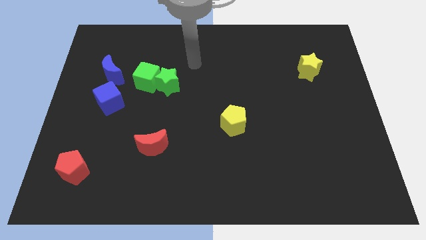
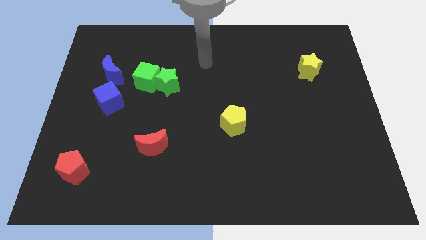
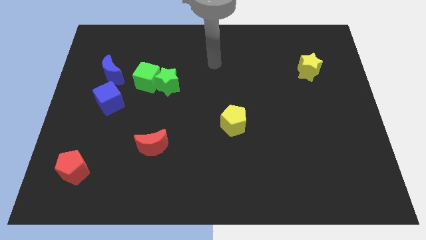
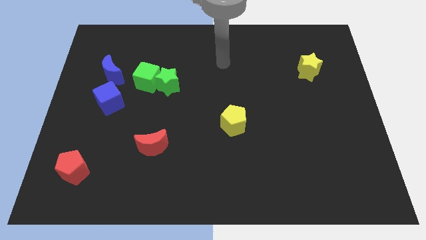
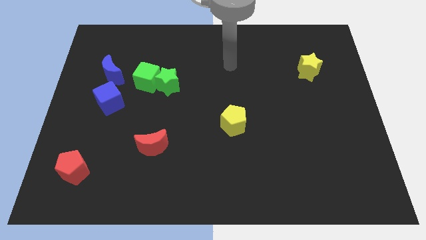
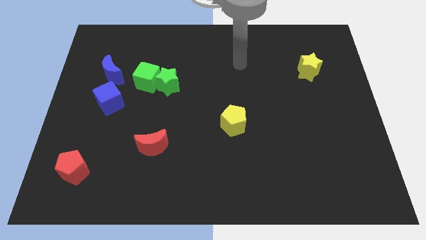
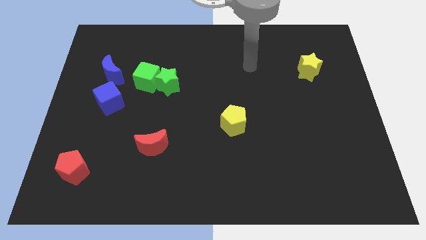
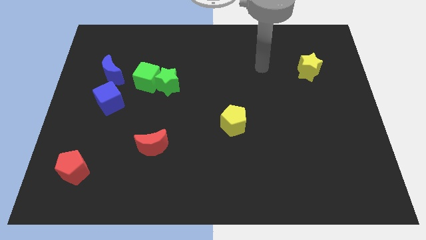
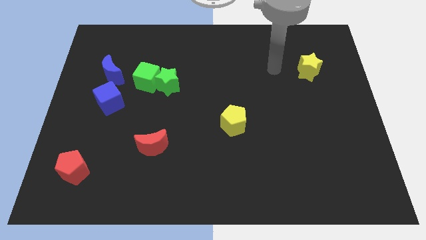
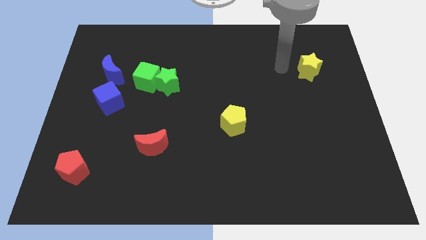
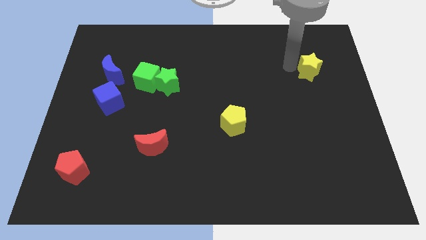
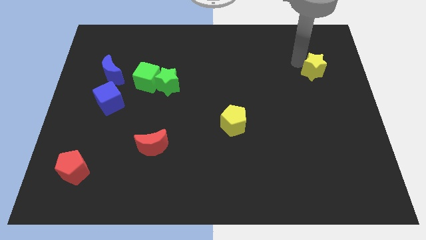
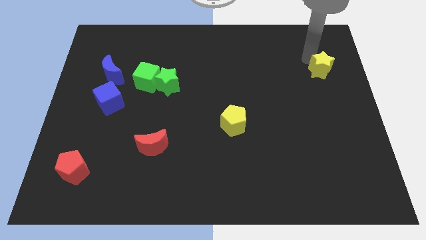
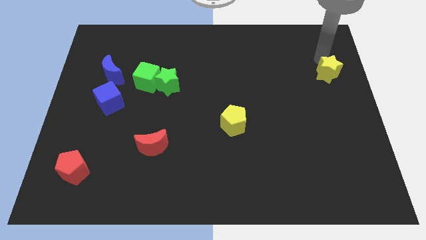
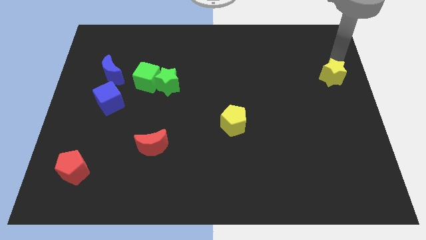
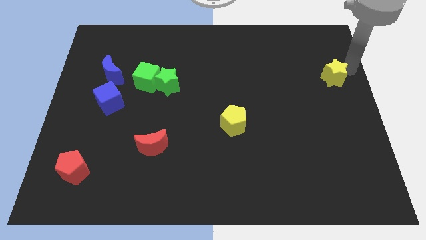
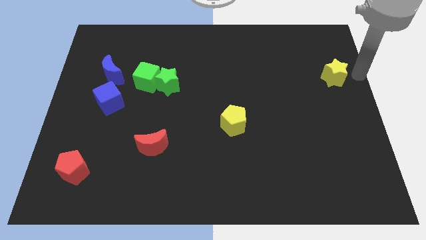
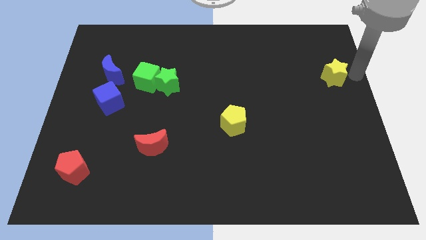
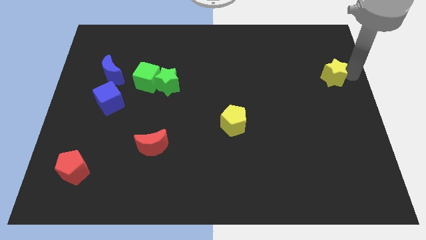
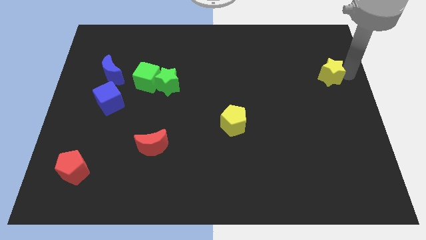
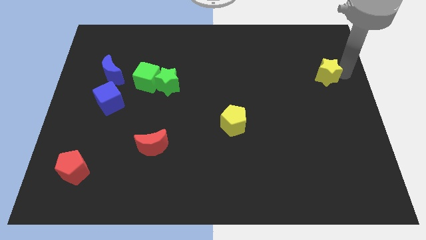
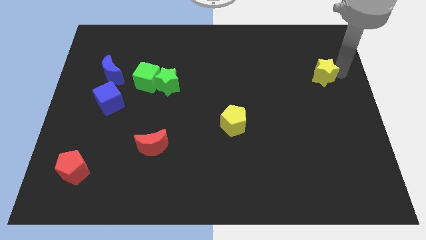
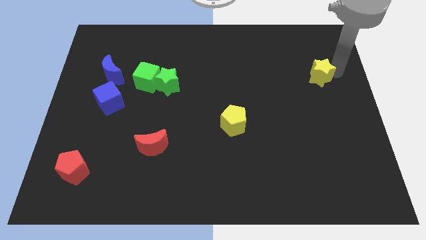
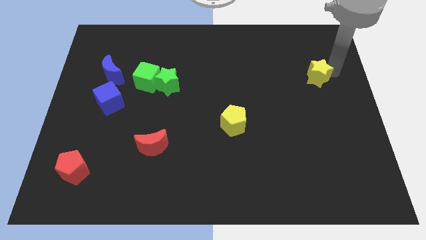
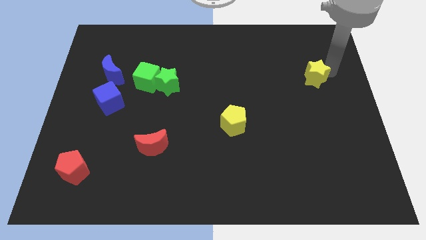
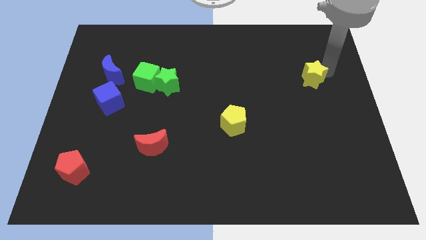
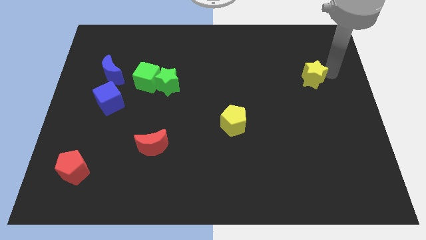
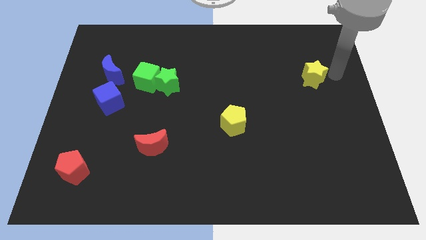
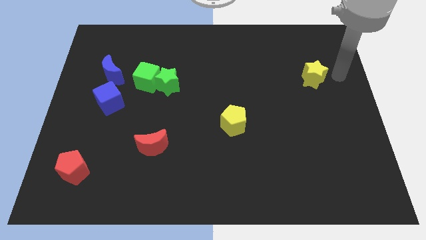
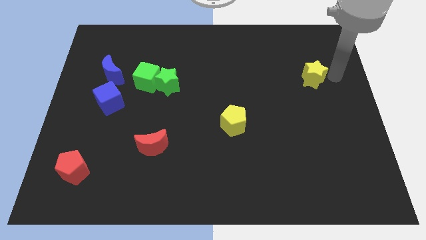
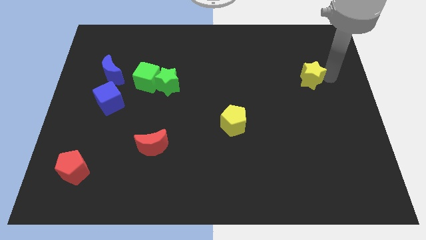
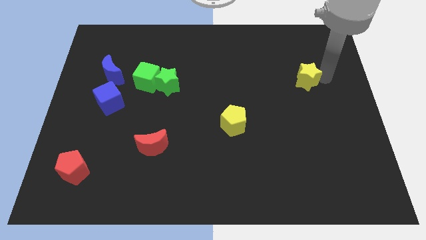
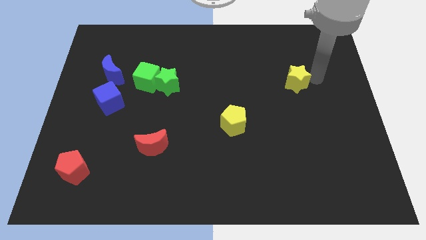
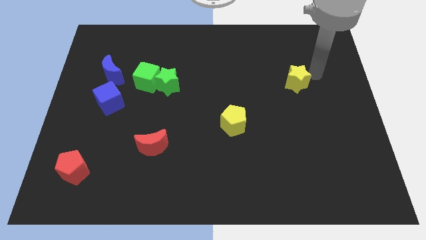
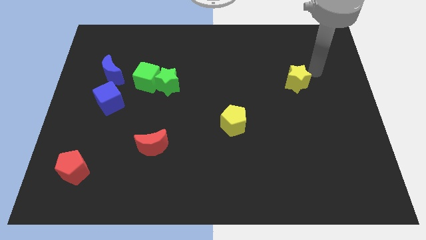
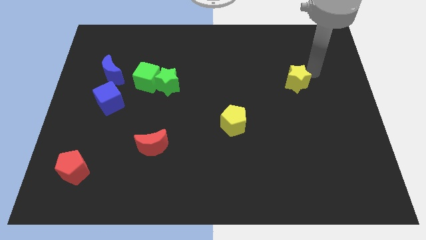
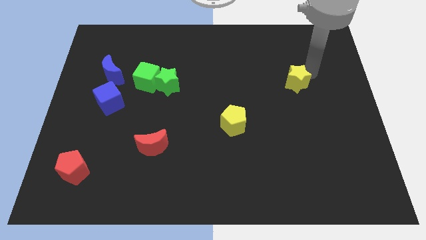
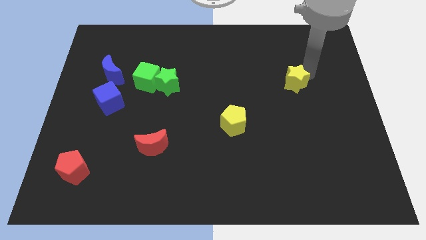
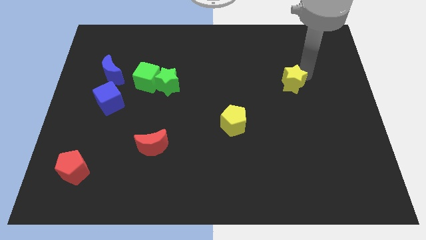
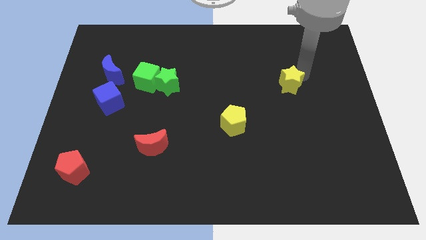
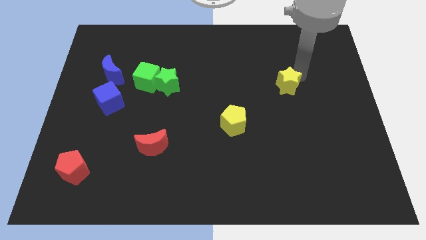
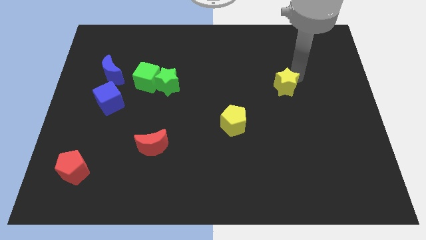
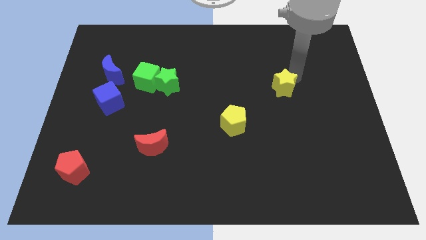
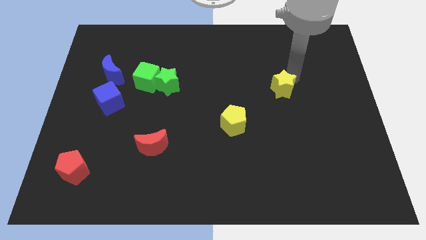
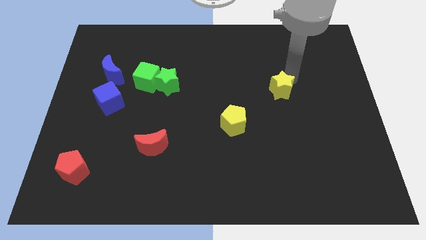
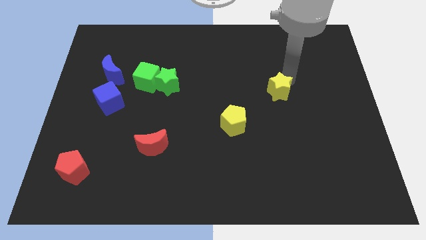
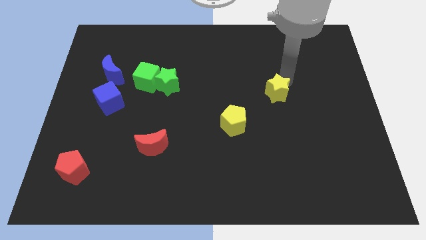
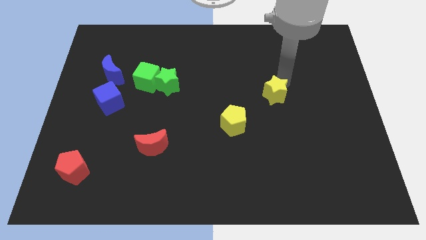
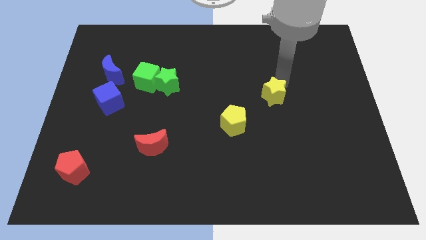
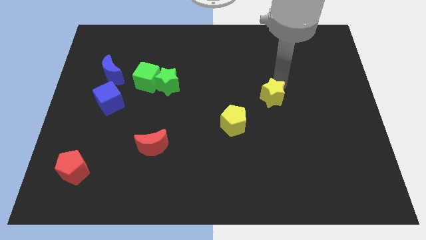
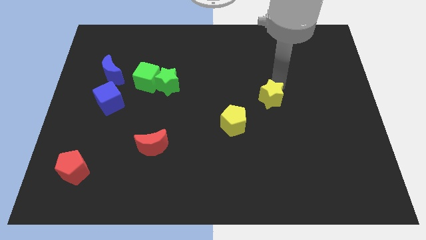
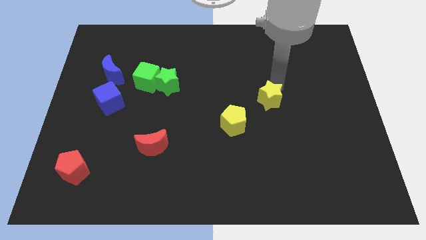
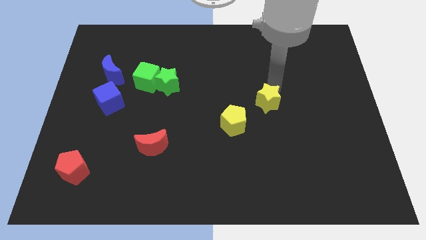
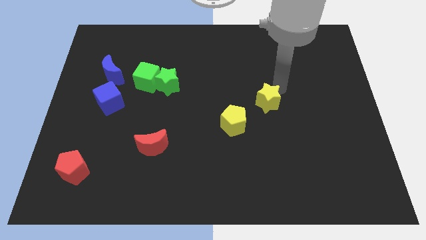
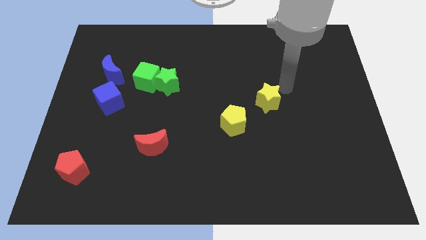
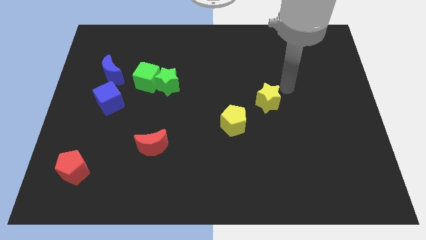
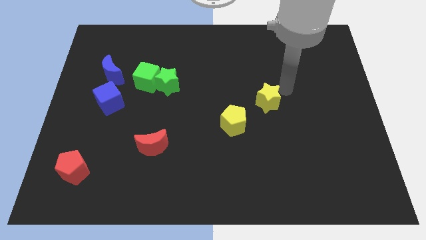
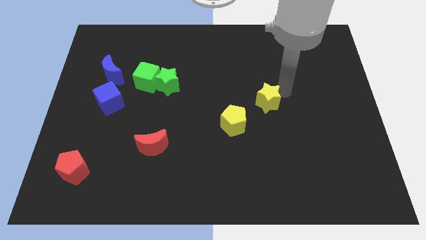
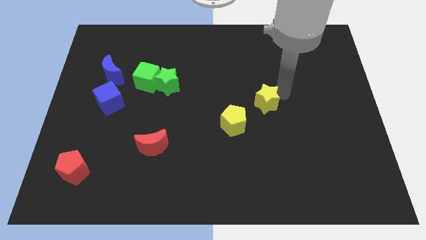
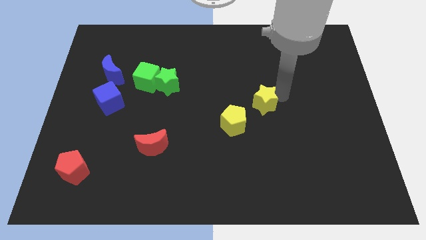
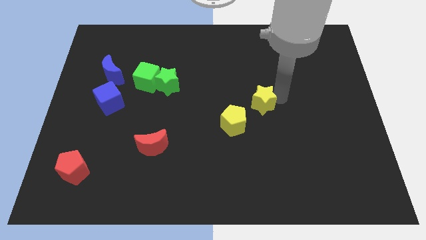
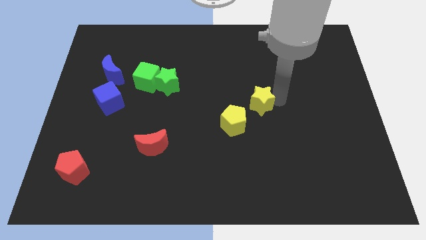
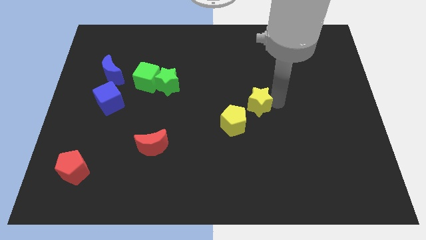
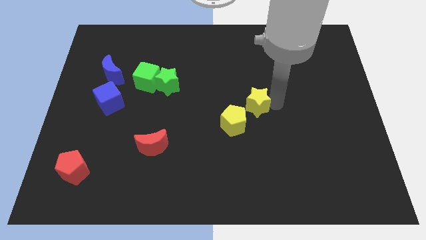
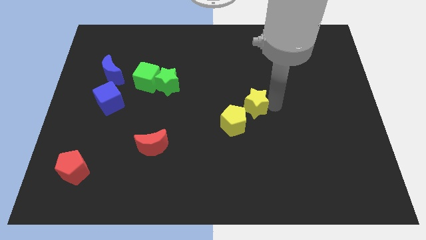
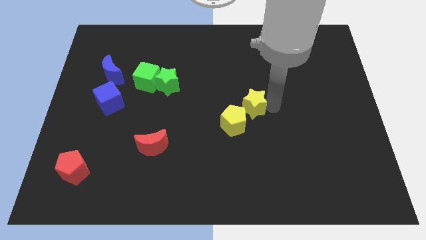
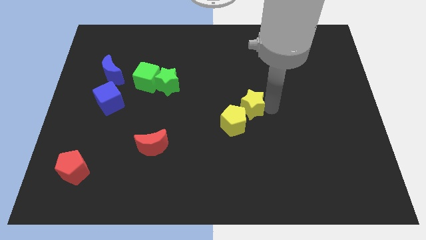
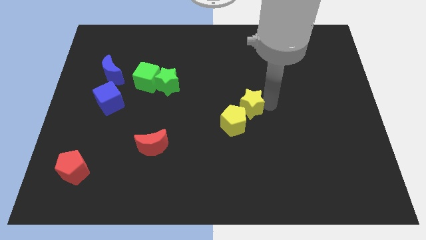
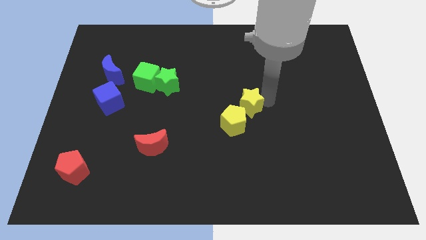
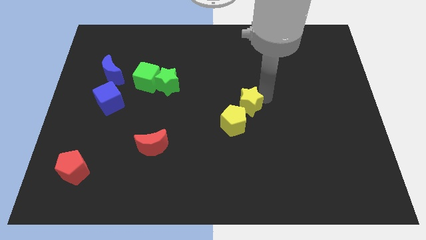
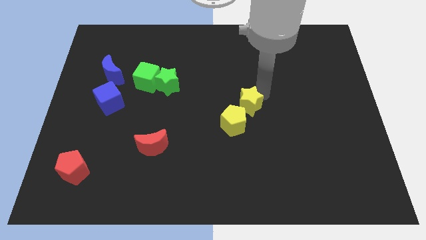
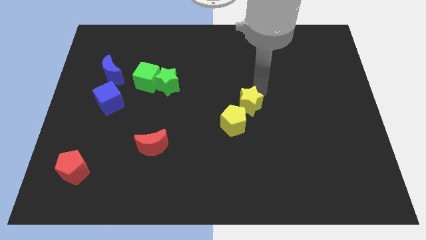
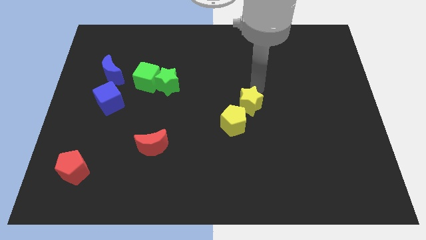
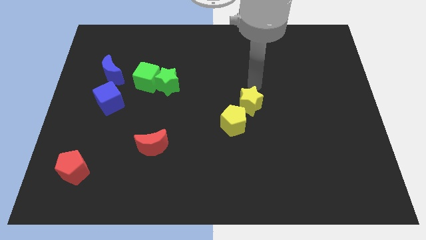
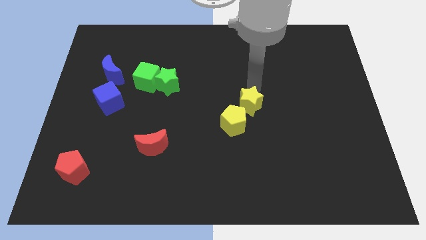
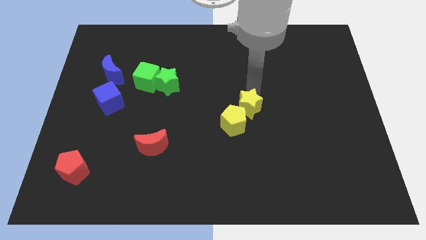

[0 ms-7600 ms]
put the yellow star to the yellow pentagon
